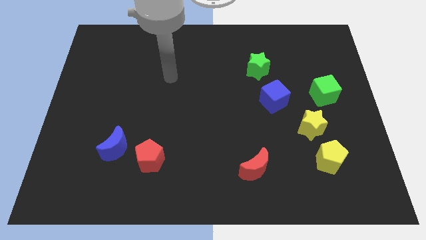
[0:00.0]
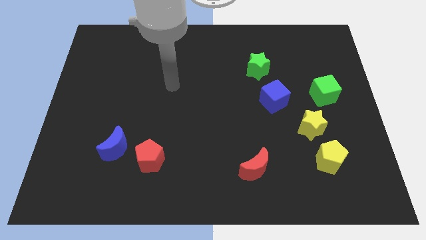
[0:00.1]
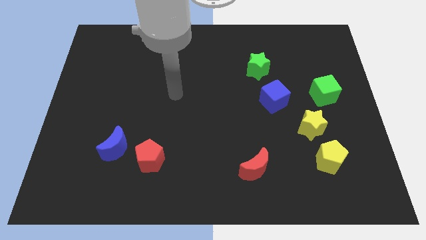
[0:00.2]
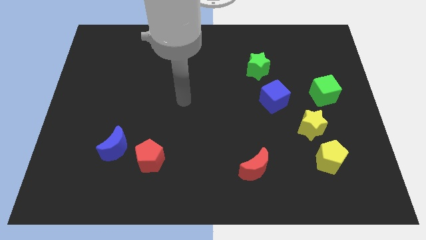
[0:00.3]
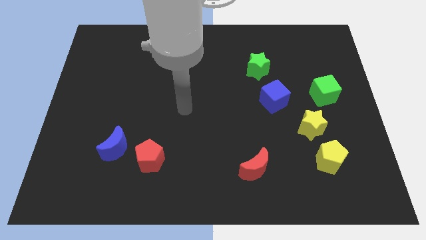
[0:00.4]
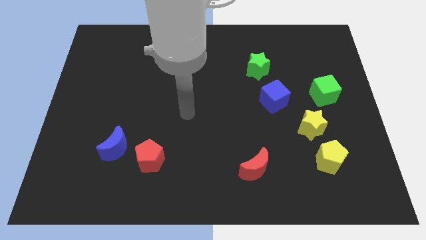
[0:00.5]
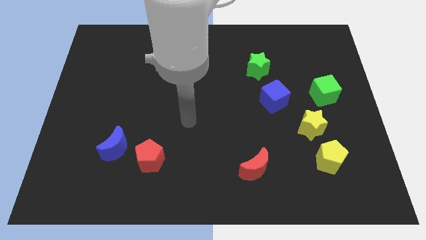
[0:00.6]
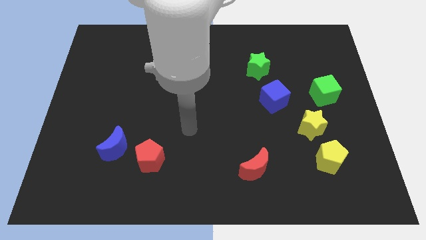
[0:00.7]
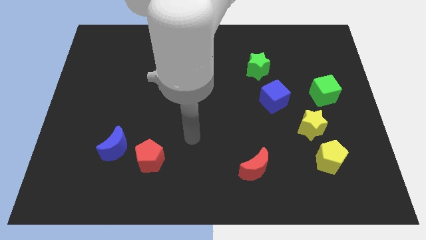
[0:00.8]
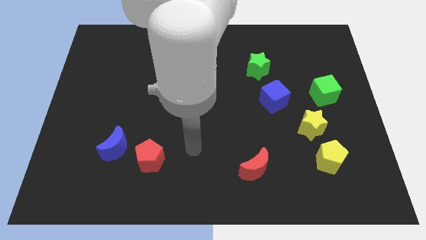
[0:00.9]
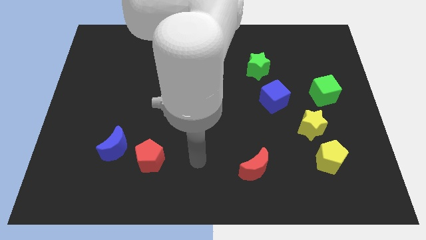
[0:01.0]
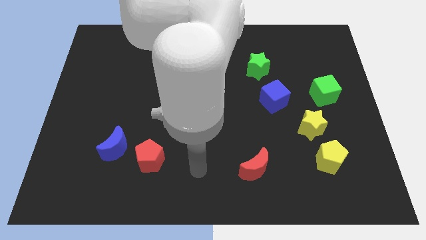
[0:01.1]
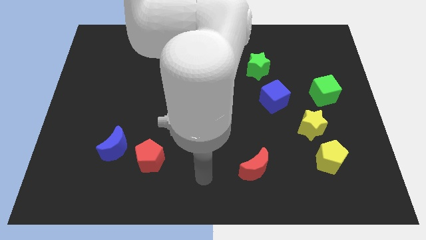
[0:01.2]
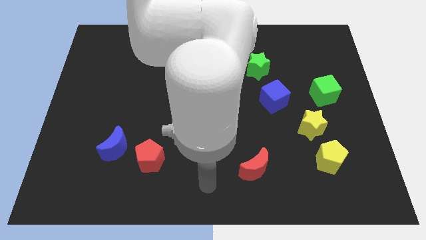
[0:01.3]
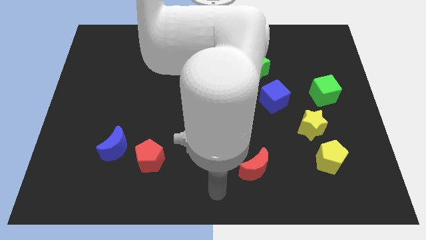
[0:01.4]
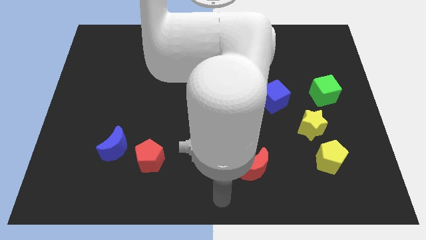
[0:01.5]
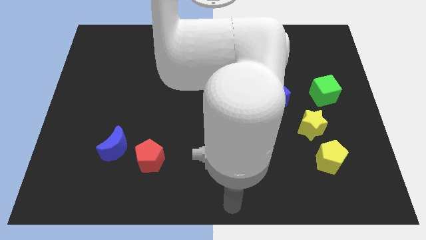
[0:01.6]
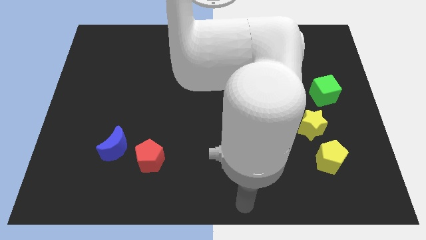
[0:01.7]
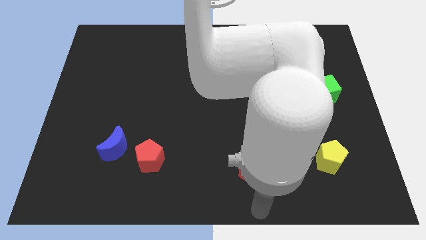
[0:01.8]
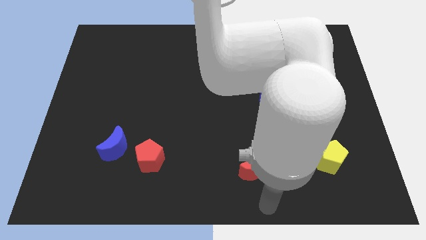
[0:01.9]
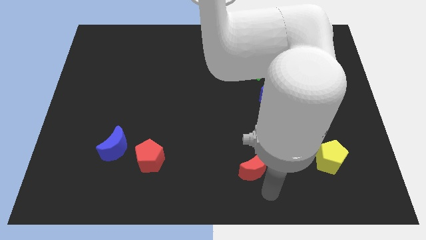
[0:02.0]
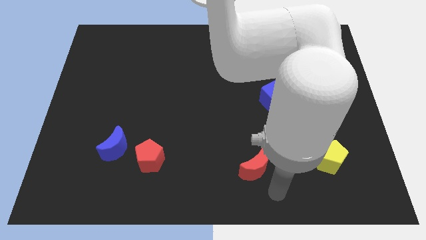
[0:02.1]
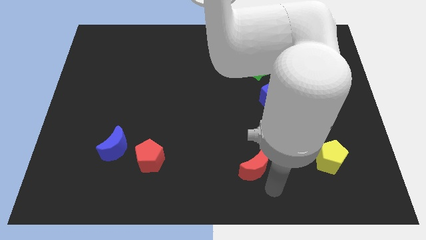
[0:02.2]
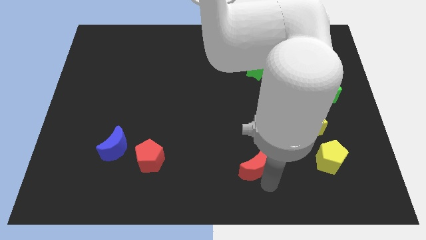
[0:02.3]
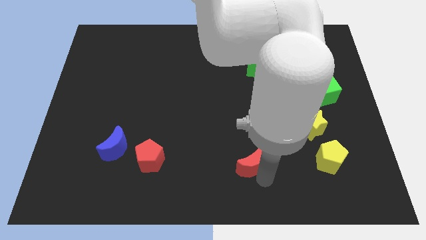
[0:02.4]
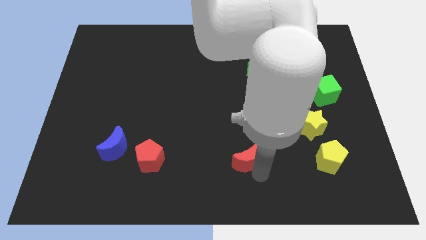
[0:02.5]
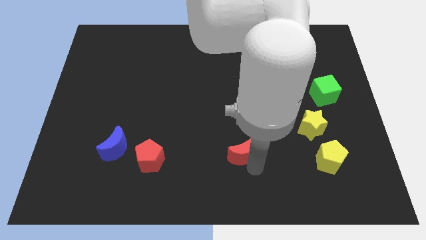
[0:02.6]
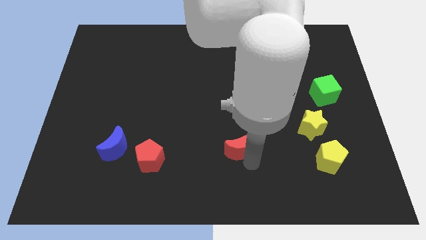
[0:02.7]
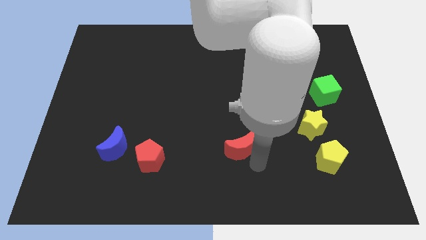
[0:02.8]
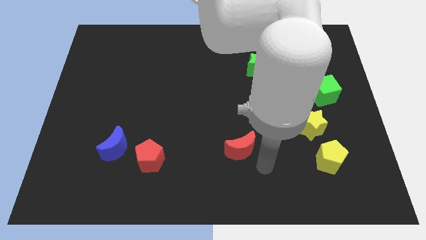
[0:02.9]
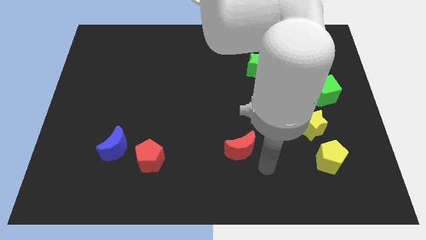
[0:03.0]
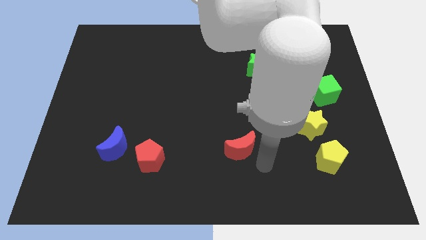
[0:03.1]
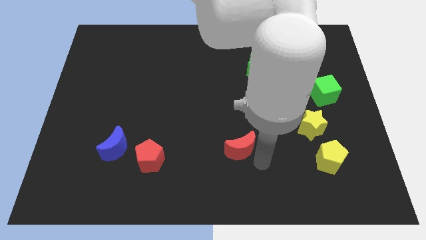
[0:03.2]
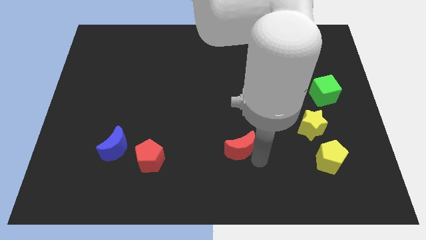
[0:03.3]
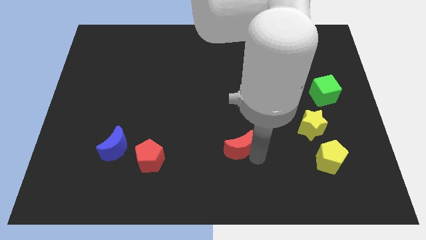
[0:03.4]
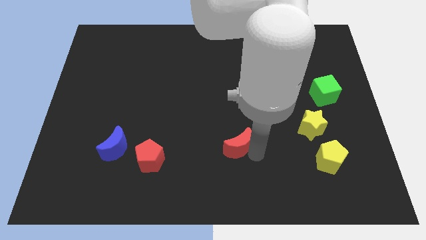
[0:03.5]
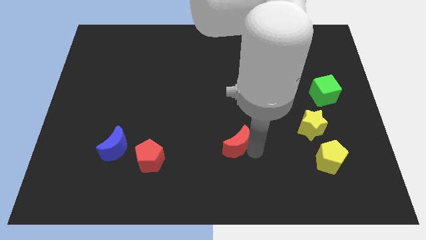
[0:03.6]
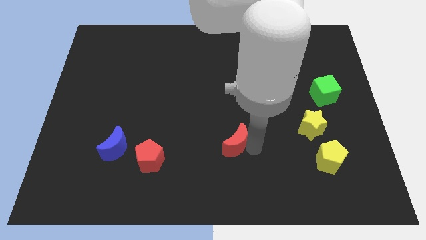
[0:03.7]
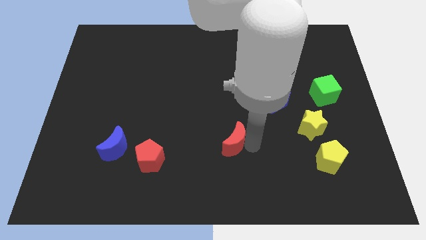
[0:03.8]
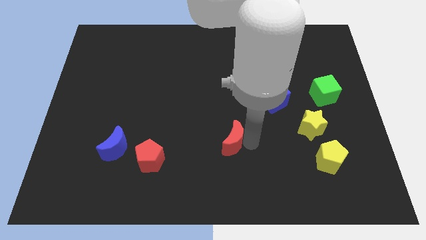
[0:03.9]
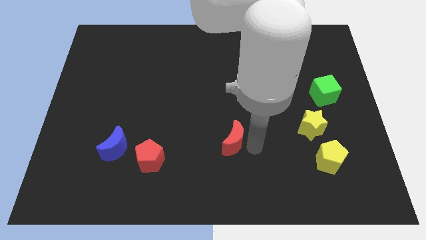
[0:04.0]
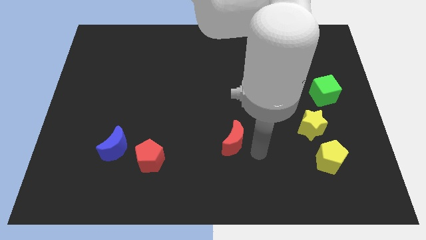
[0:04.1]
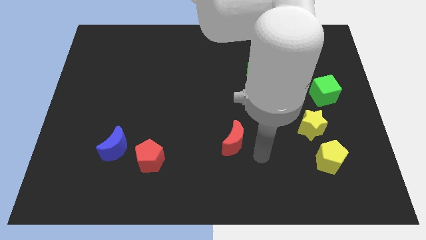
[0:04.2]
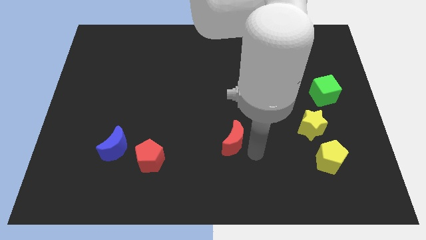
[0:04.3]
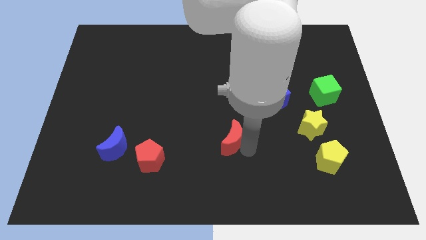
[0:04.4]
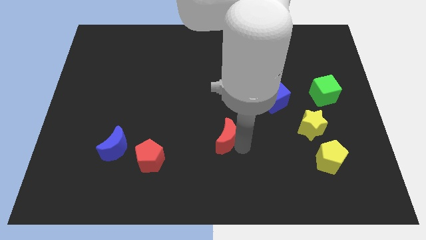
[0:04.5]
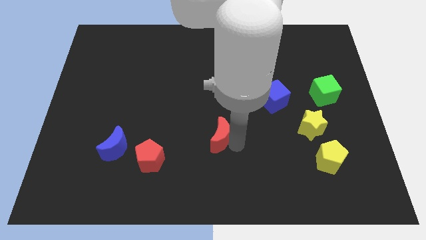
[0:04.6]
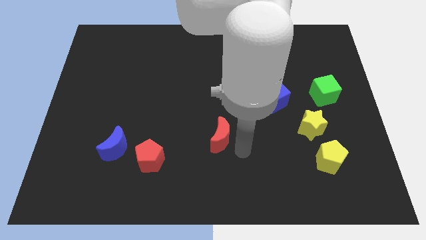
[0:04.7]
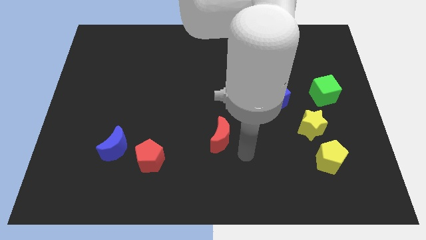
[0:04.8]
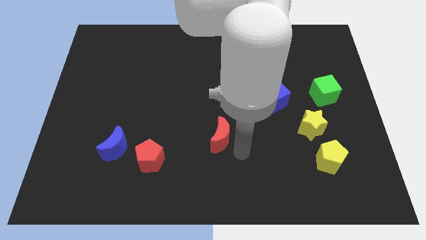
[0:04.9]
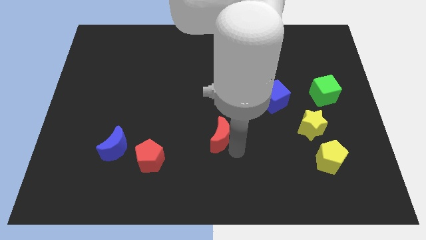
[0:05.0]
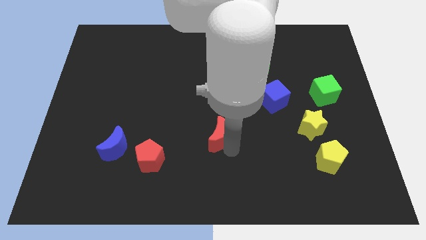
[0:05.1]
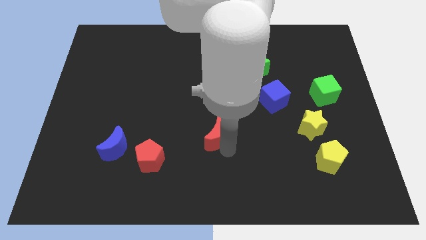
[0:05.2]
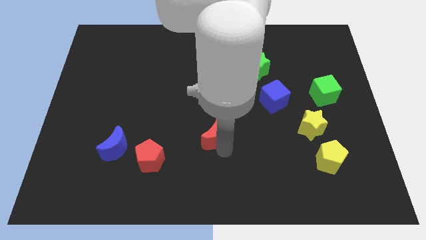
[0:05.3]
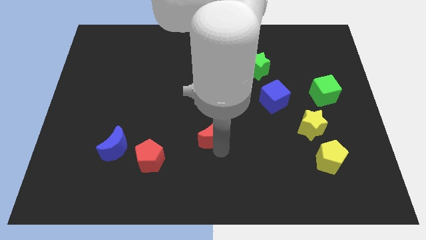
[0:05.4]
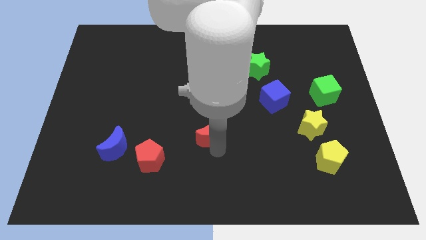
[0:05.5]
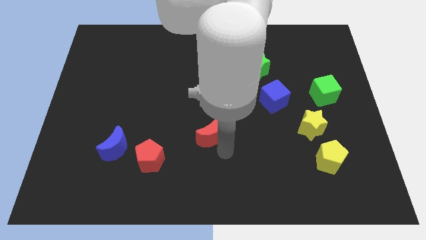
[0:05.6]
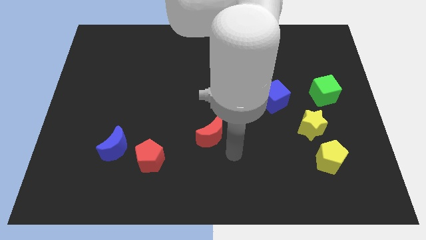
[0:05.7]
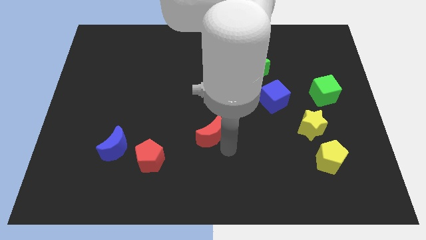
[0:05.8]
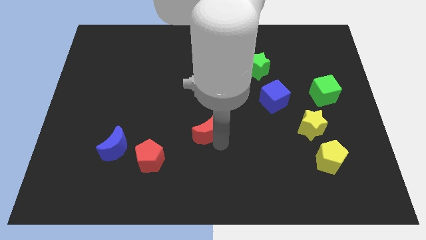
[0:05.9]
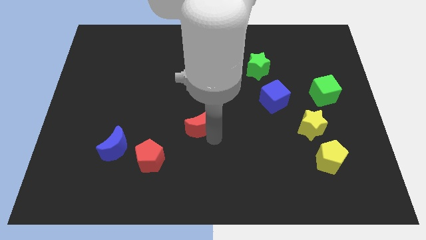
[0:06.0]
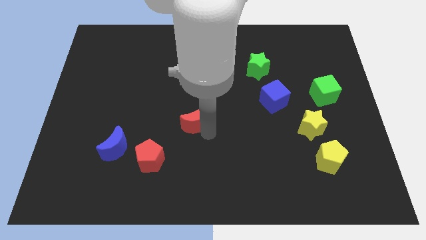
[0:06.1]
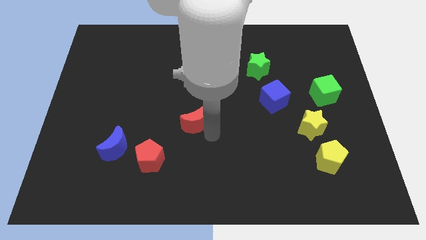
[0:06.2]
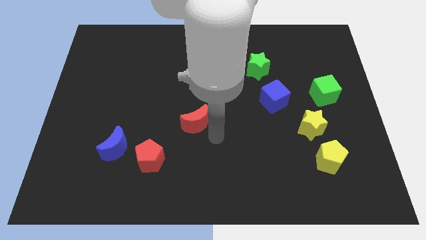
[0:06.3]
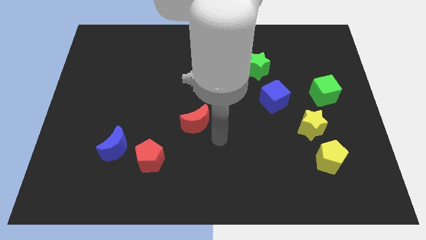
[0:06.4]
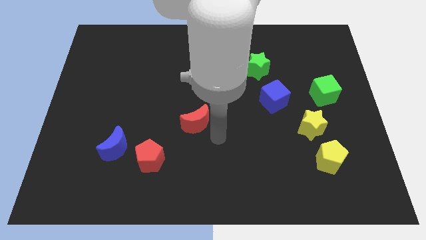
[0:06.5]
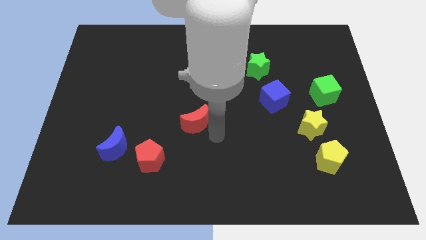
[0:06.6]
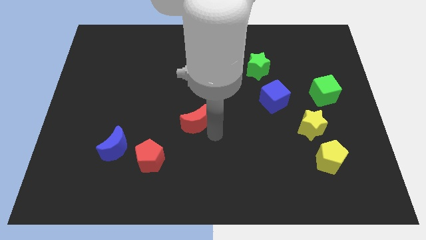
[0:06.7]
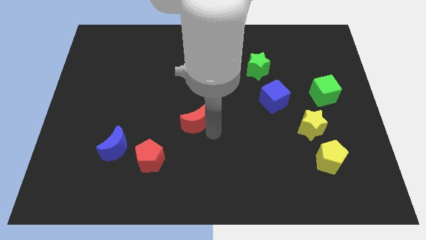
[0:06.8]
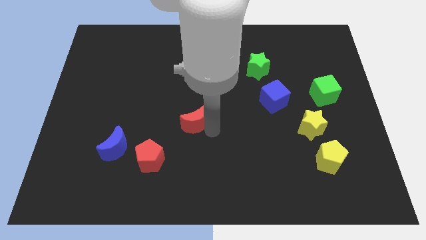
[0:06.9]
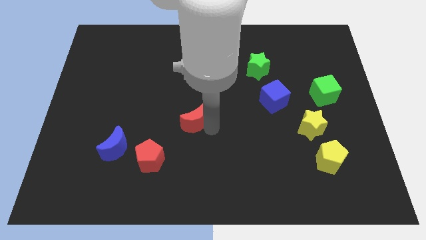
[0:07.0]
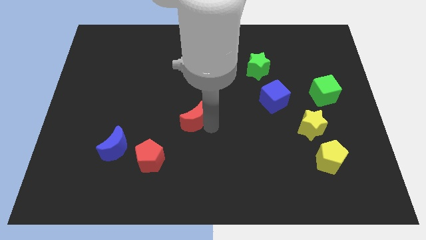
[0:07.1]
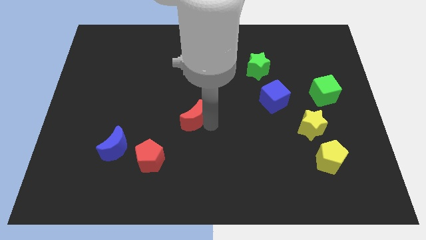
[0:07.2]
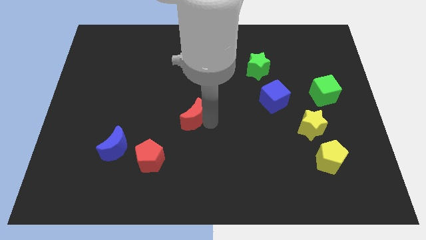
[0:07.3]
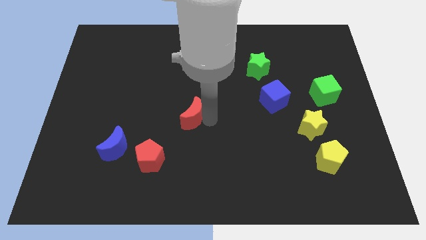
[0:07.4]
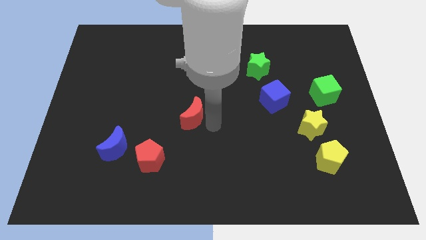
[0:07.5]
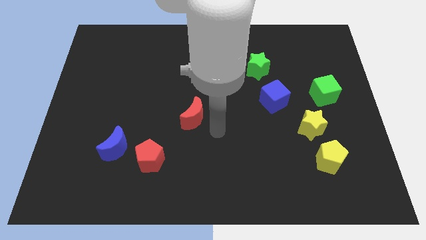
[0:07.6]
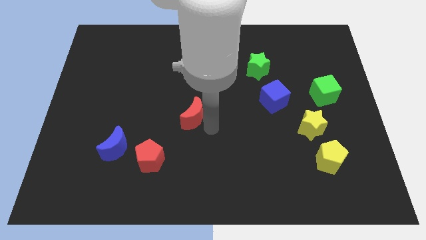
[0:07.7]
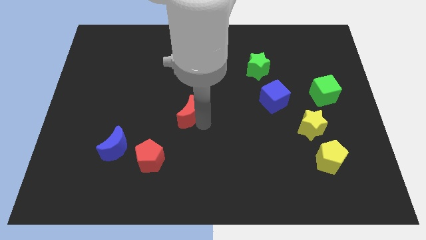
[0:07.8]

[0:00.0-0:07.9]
push the red moon up and then left

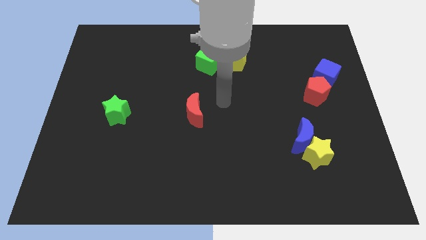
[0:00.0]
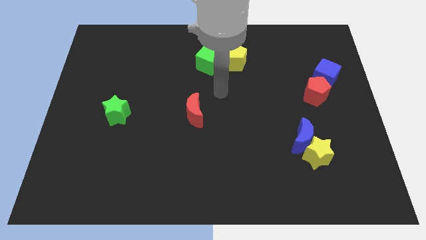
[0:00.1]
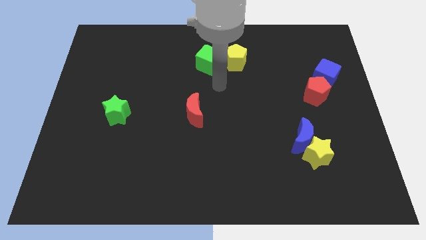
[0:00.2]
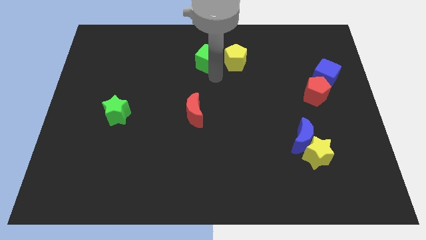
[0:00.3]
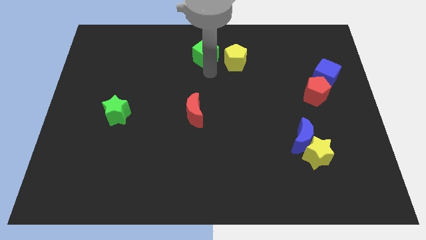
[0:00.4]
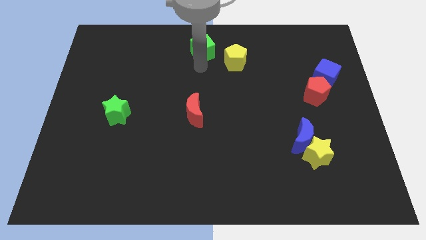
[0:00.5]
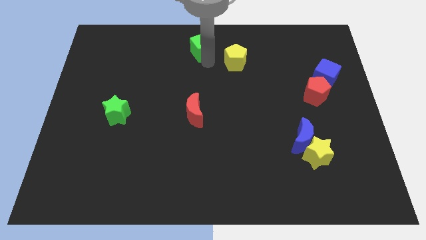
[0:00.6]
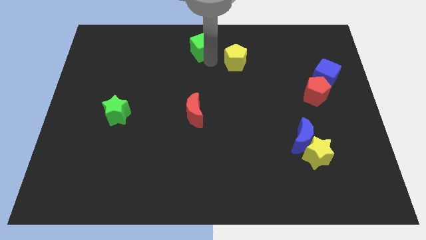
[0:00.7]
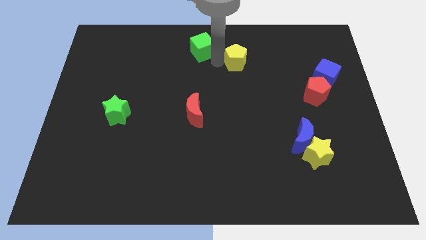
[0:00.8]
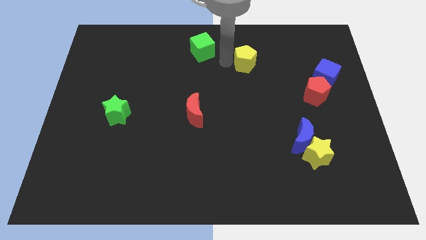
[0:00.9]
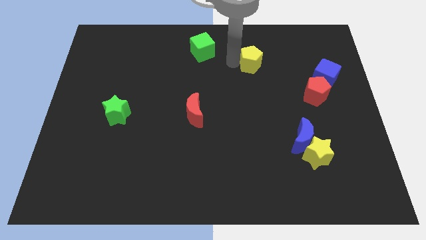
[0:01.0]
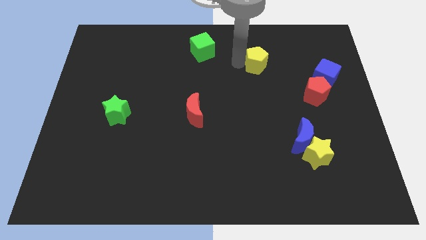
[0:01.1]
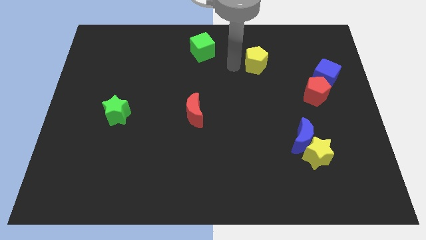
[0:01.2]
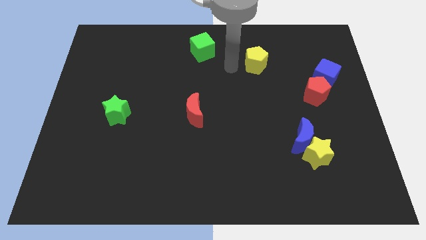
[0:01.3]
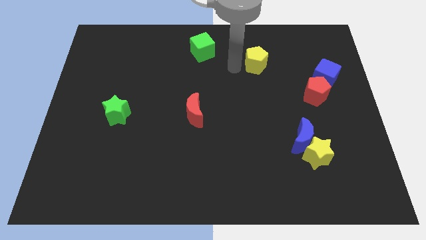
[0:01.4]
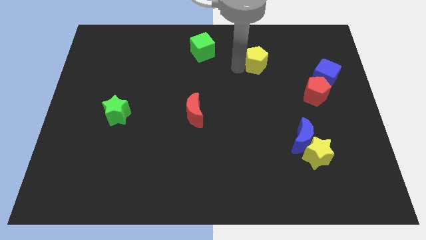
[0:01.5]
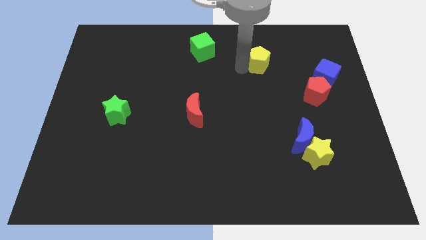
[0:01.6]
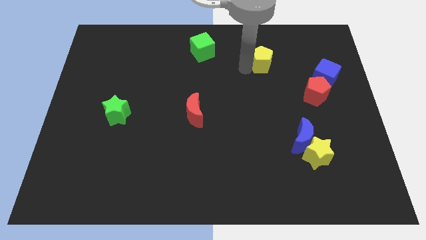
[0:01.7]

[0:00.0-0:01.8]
slide the yellow pentagon to the right slightly
